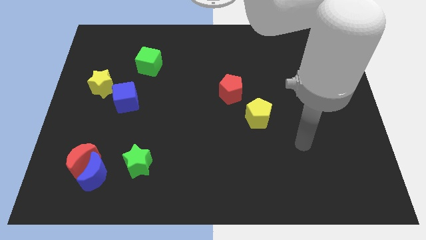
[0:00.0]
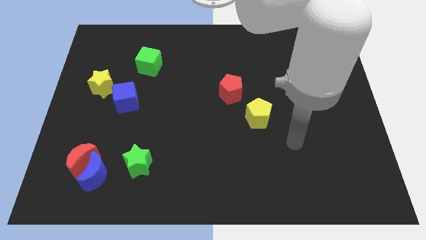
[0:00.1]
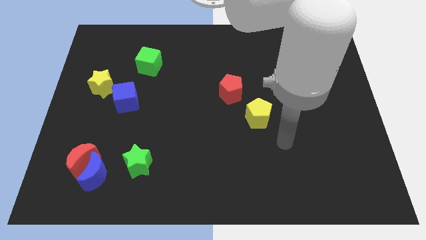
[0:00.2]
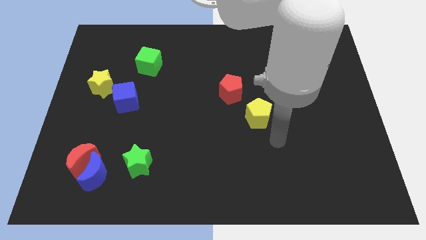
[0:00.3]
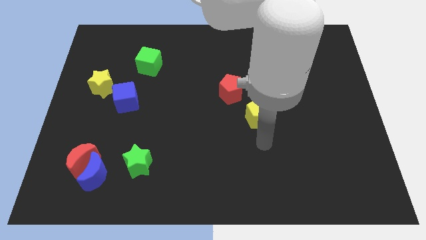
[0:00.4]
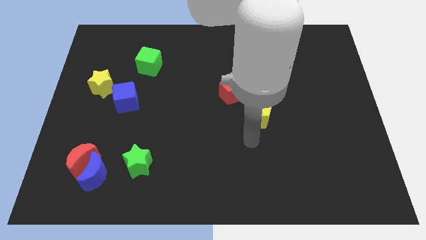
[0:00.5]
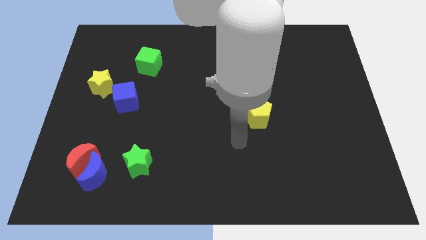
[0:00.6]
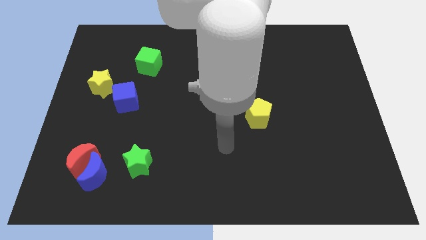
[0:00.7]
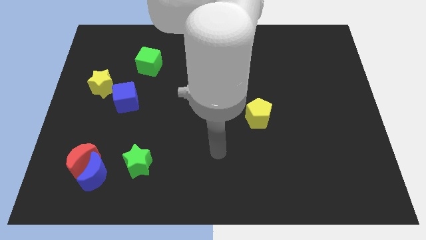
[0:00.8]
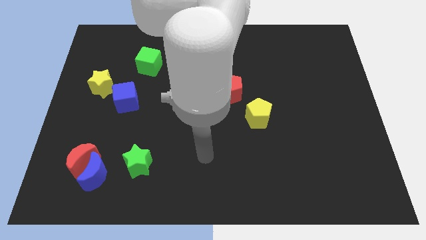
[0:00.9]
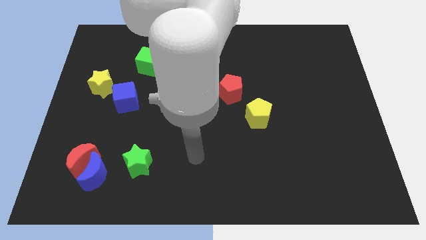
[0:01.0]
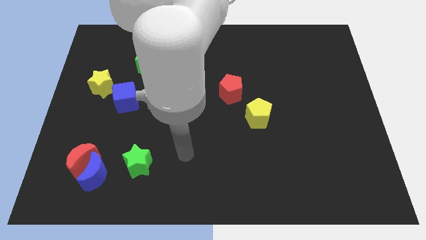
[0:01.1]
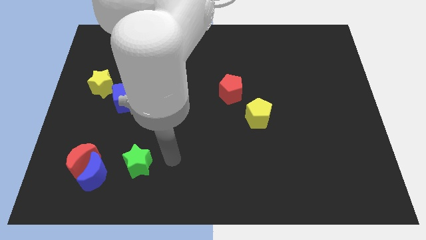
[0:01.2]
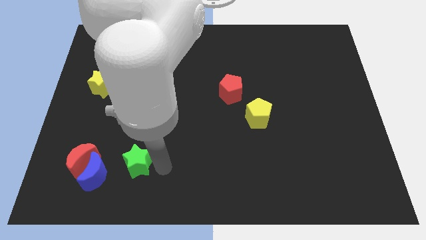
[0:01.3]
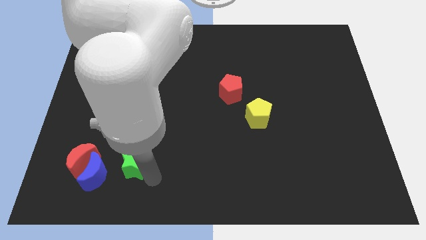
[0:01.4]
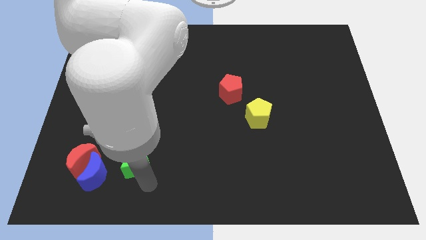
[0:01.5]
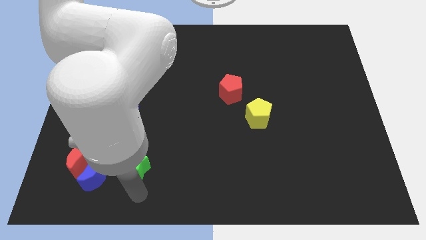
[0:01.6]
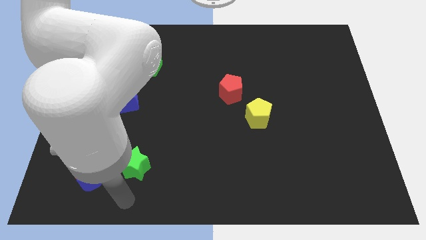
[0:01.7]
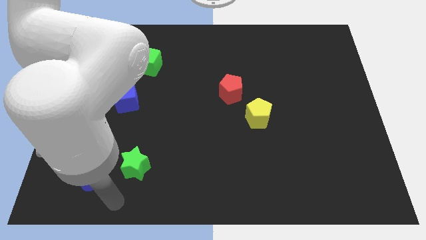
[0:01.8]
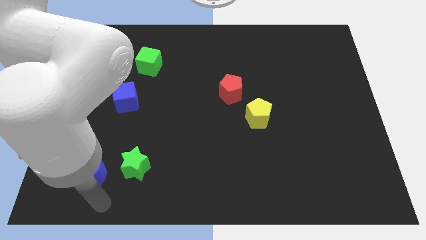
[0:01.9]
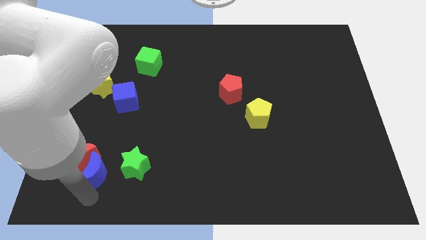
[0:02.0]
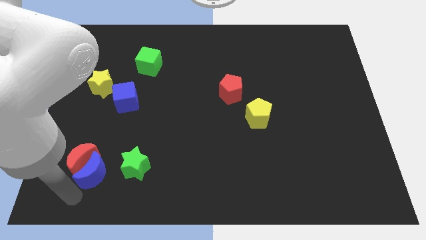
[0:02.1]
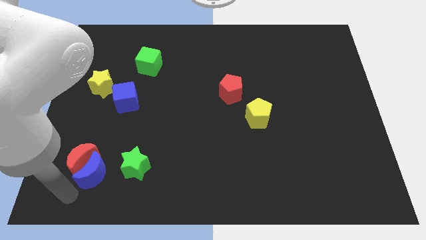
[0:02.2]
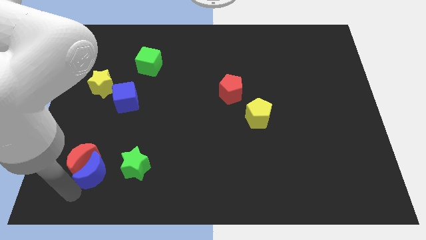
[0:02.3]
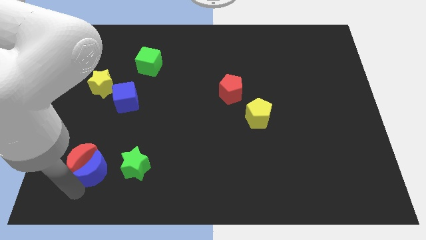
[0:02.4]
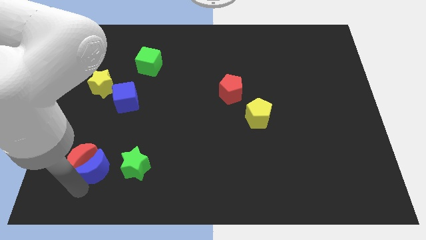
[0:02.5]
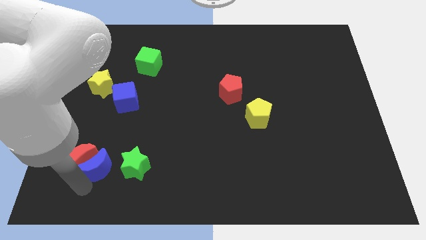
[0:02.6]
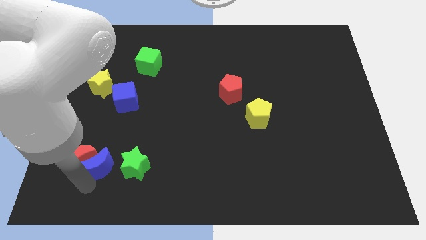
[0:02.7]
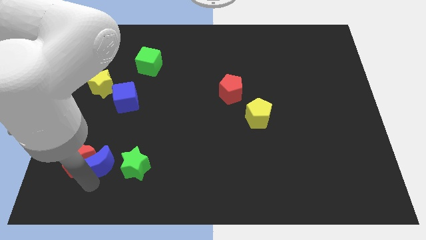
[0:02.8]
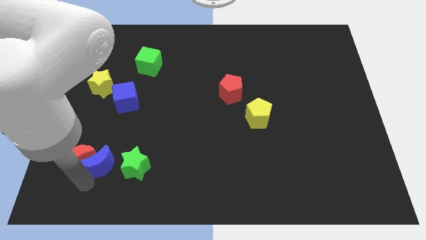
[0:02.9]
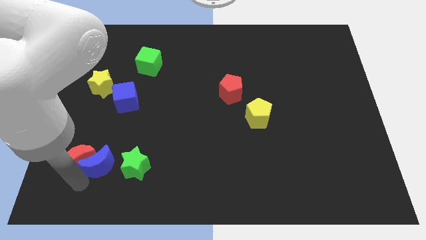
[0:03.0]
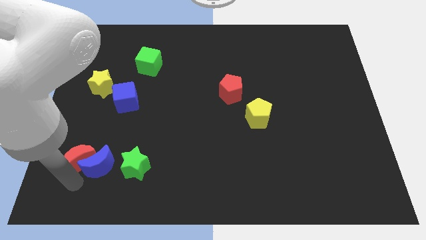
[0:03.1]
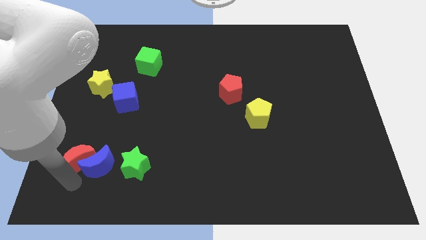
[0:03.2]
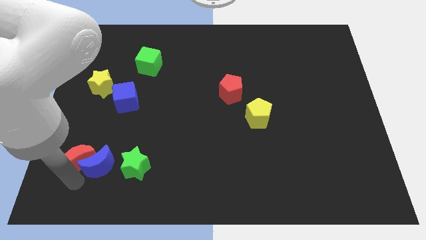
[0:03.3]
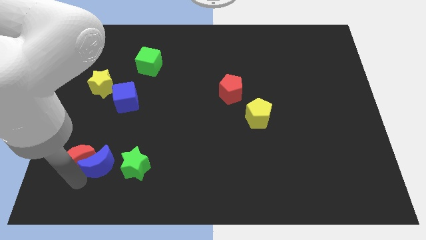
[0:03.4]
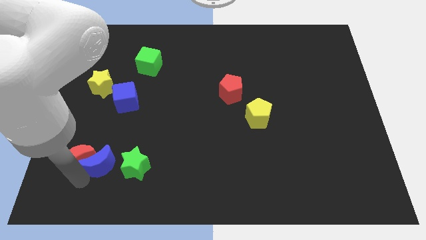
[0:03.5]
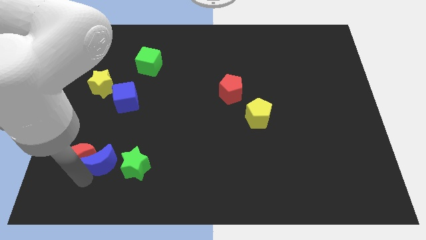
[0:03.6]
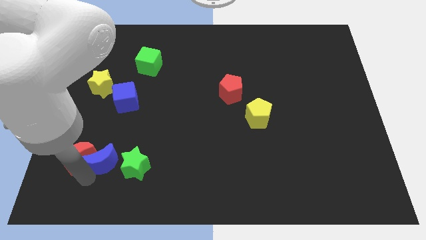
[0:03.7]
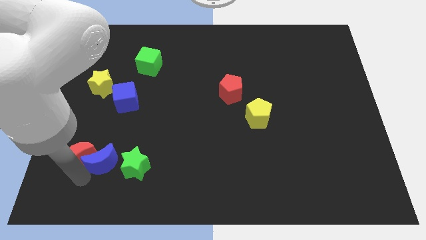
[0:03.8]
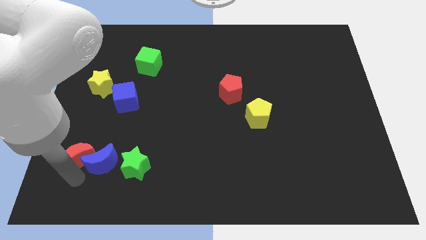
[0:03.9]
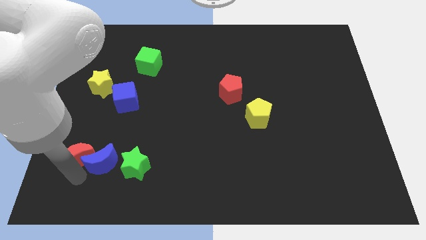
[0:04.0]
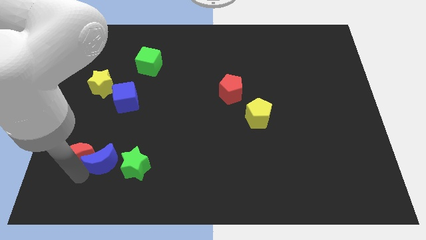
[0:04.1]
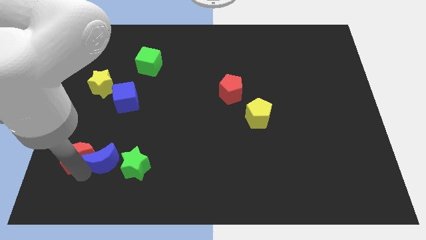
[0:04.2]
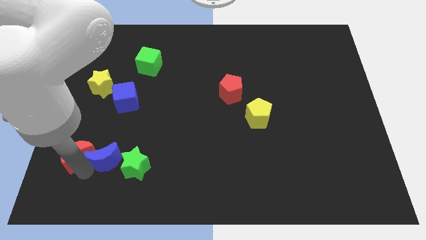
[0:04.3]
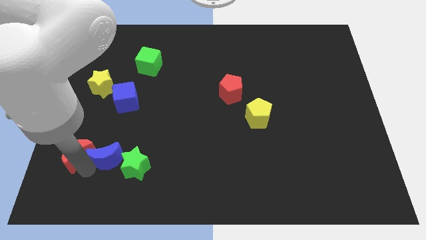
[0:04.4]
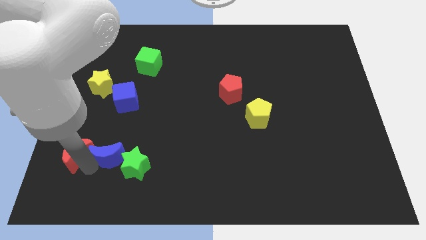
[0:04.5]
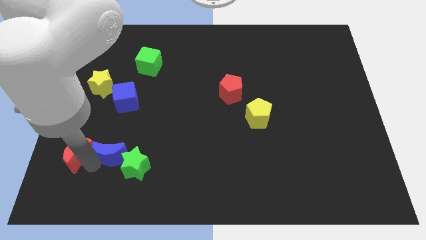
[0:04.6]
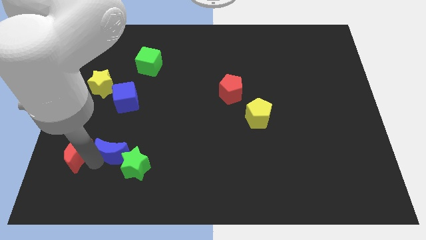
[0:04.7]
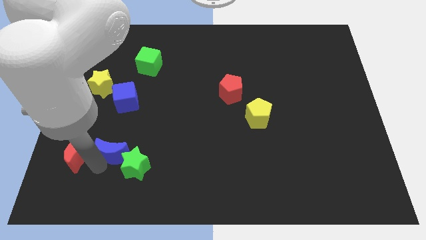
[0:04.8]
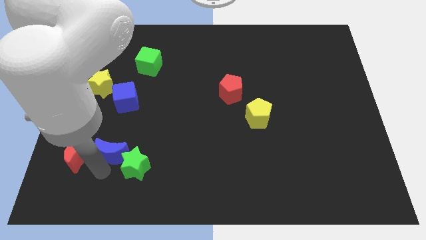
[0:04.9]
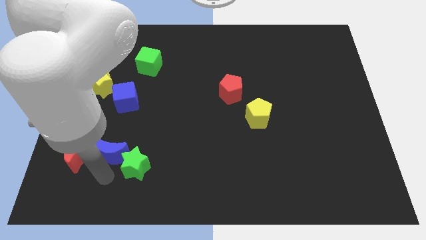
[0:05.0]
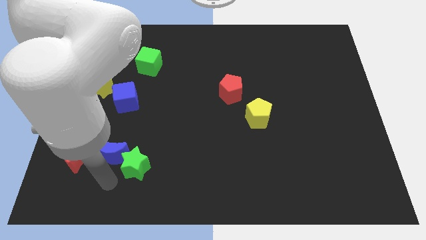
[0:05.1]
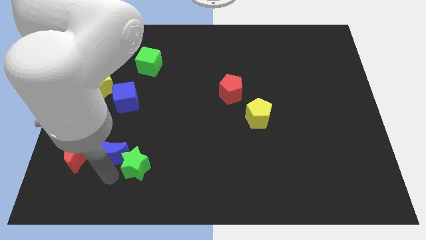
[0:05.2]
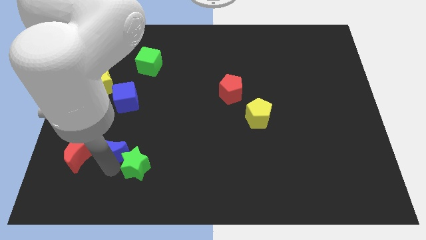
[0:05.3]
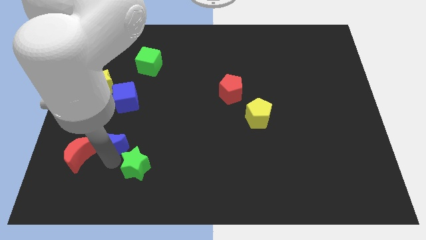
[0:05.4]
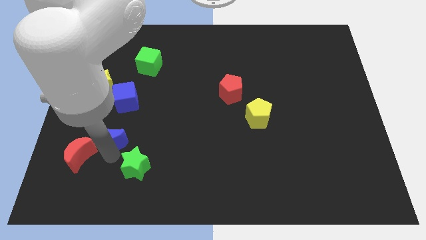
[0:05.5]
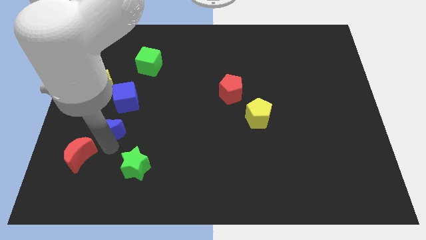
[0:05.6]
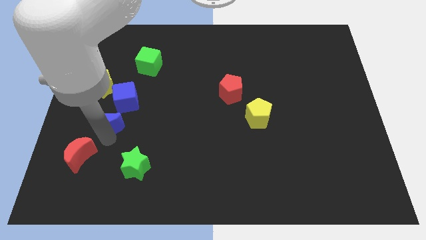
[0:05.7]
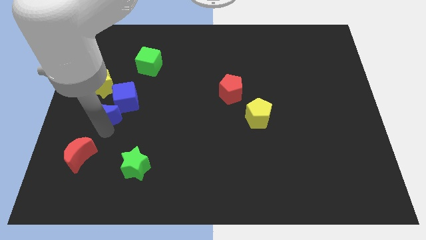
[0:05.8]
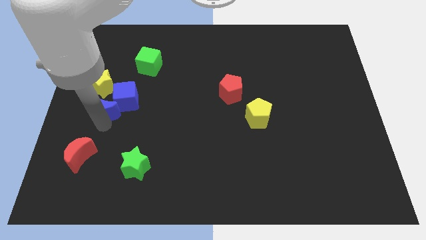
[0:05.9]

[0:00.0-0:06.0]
push the blue moon close to the blue cube
